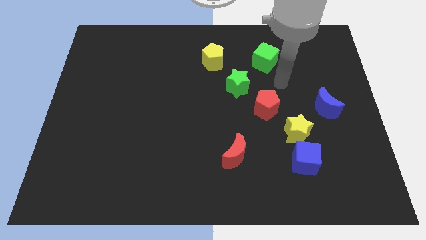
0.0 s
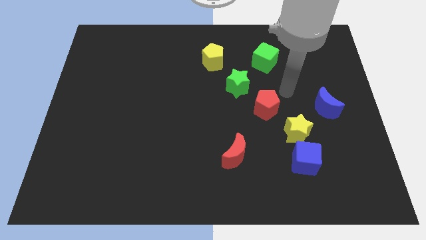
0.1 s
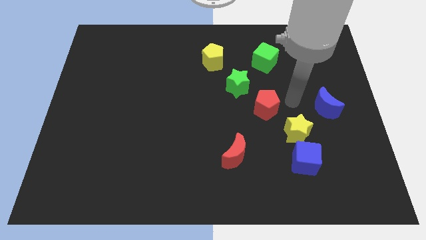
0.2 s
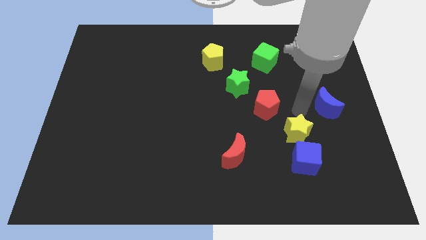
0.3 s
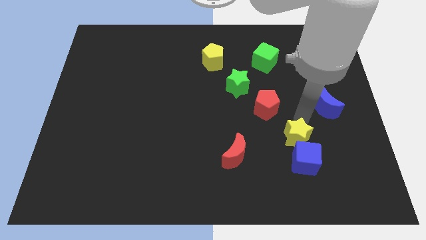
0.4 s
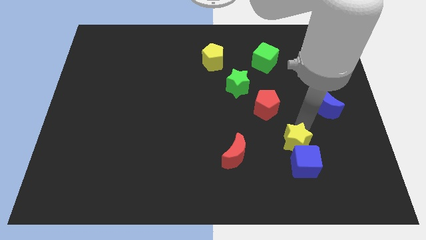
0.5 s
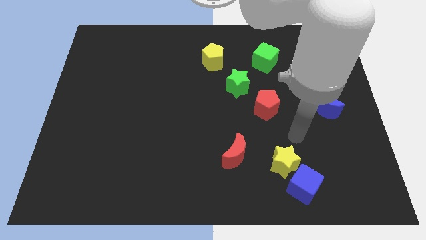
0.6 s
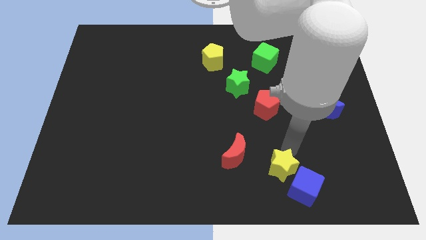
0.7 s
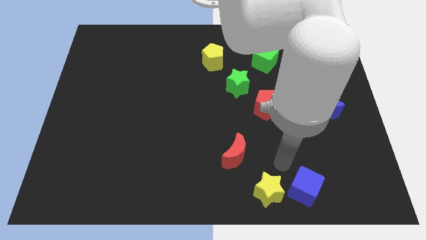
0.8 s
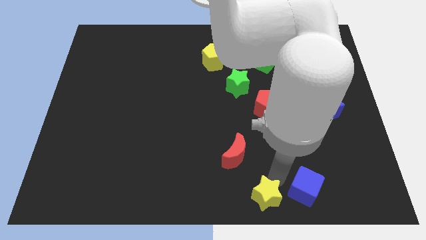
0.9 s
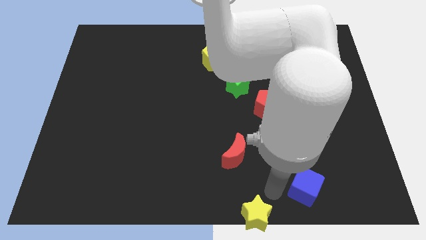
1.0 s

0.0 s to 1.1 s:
move the blue cube away from the yellow star

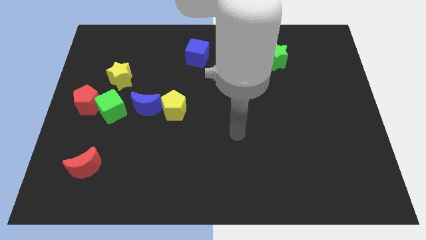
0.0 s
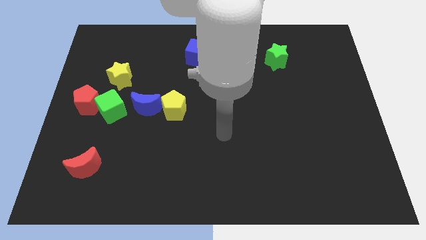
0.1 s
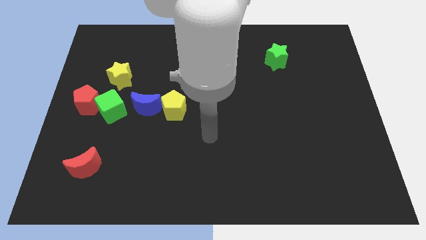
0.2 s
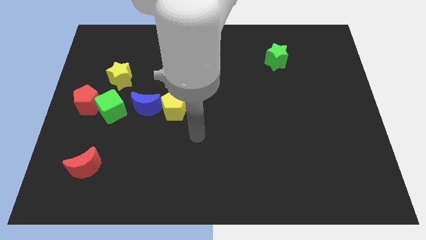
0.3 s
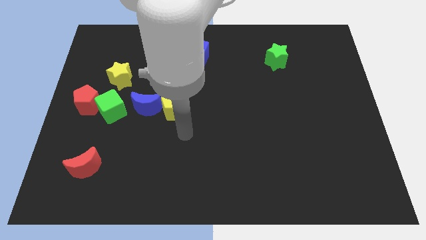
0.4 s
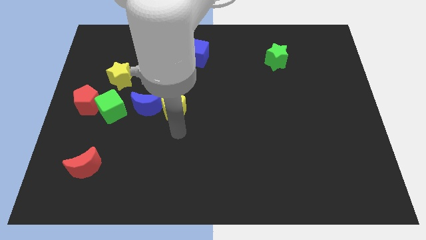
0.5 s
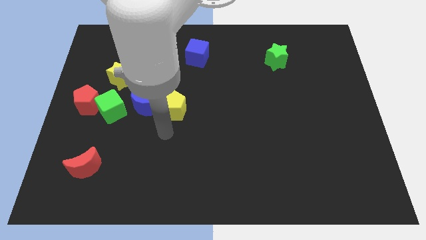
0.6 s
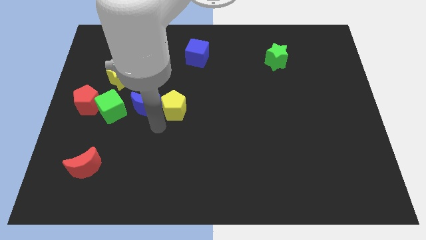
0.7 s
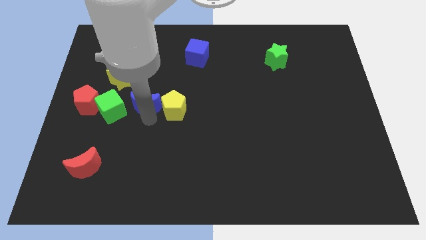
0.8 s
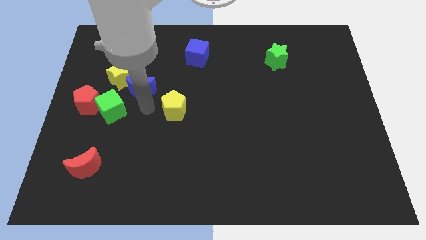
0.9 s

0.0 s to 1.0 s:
pull the yellow pentagon apart from the blue moon

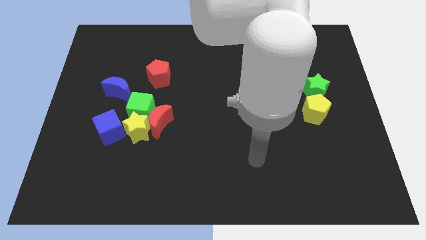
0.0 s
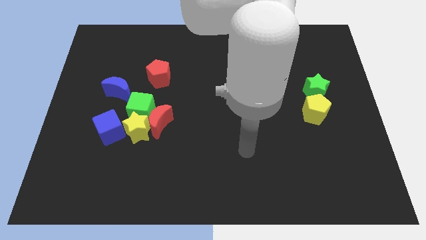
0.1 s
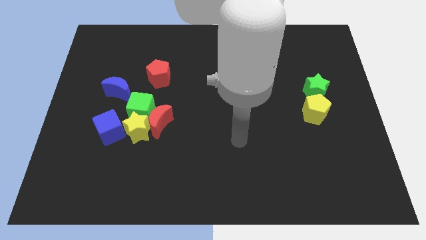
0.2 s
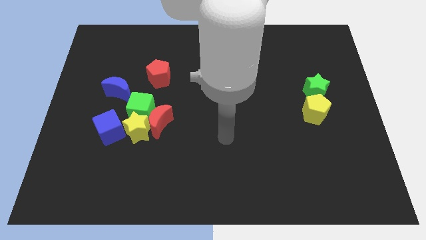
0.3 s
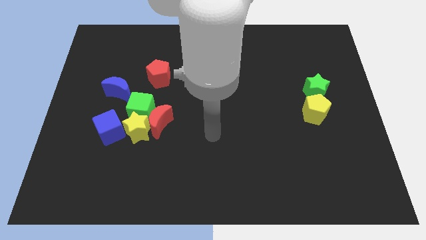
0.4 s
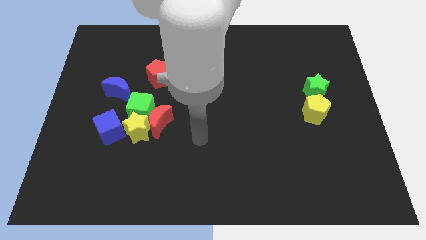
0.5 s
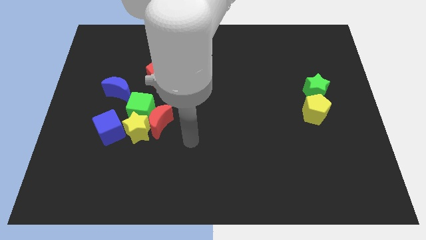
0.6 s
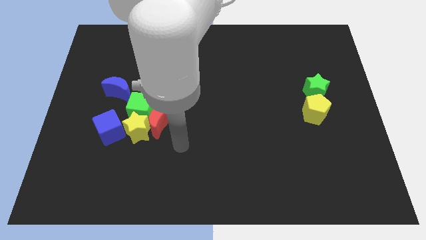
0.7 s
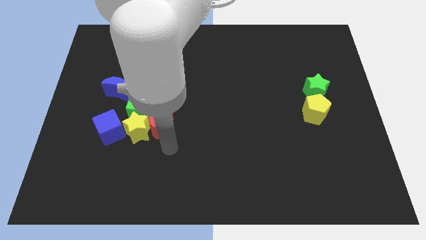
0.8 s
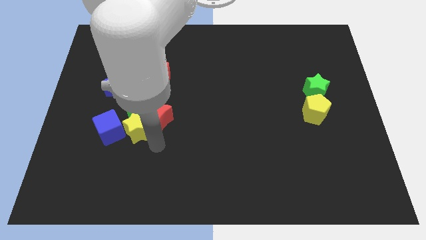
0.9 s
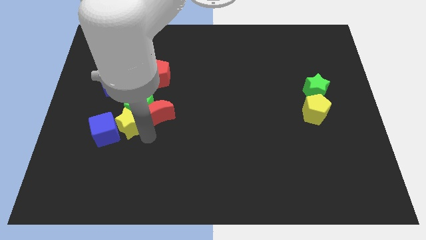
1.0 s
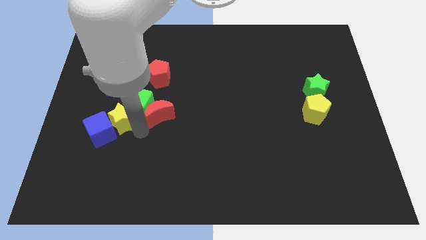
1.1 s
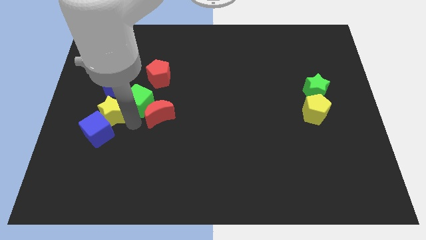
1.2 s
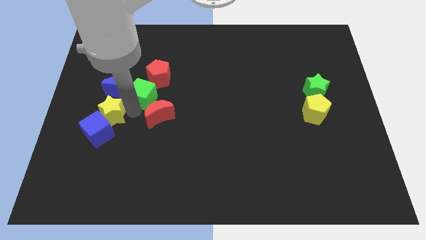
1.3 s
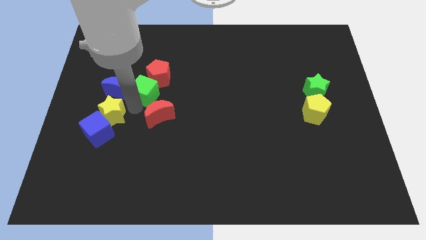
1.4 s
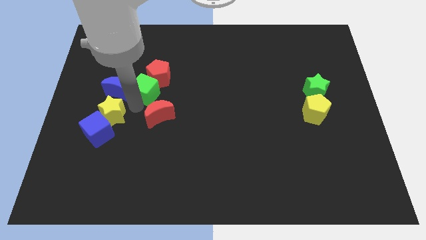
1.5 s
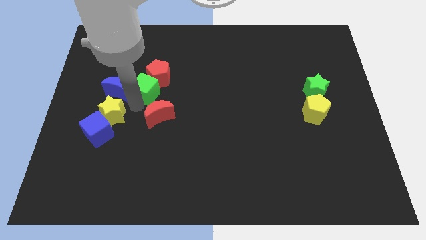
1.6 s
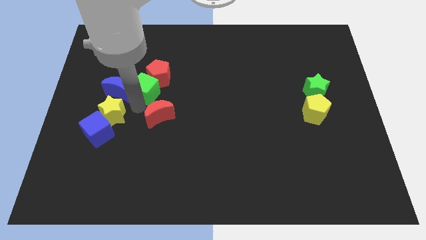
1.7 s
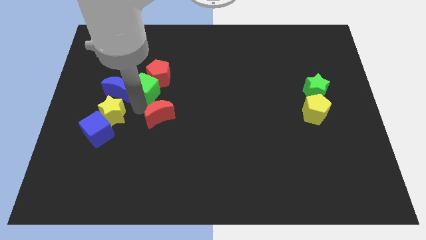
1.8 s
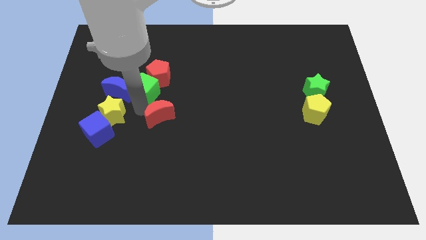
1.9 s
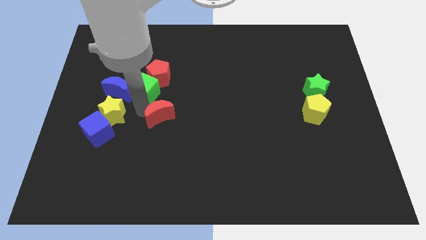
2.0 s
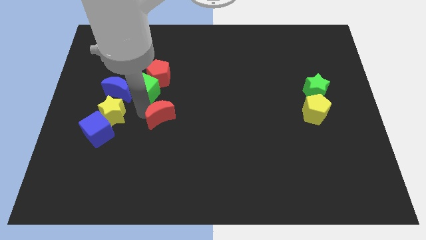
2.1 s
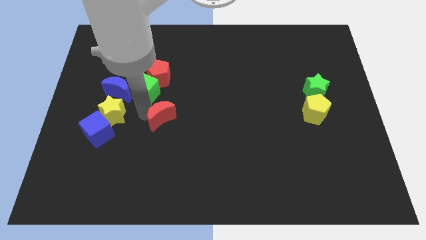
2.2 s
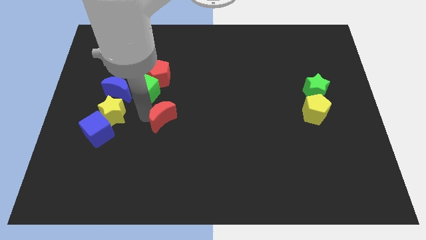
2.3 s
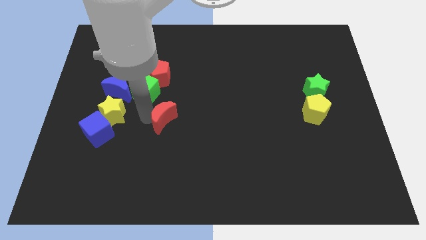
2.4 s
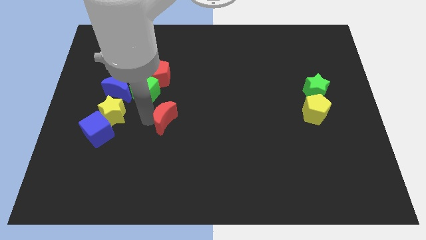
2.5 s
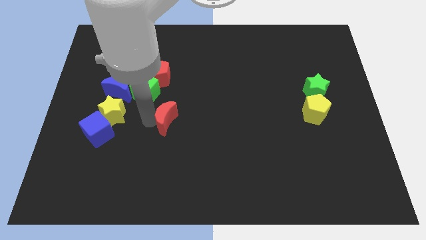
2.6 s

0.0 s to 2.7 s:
move the red moon away from the yellow star and green cube

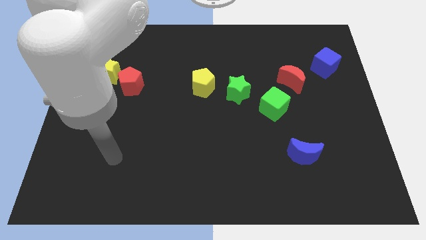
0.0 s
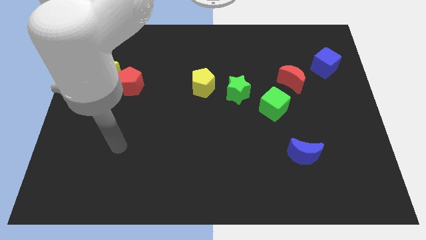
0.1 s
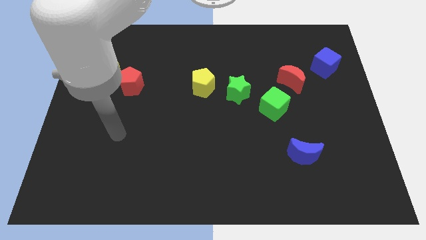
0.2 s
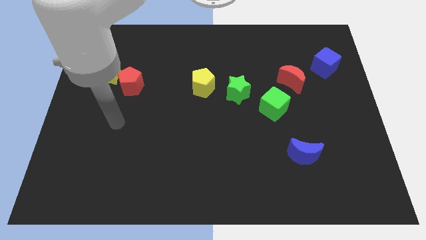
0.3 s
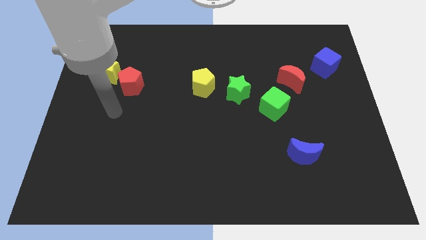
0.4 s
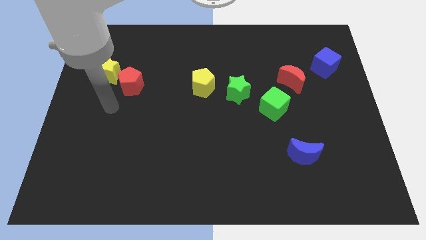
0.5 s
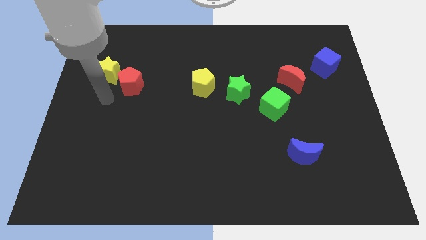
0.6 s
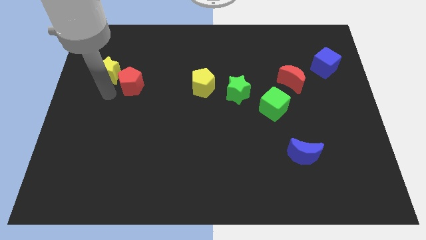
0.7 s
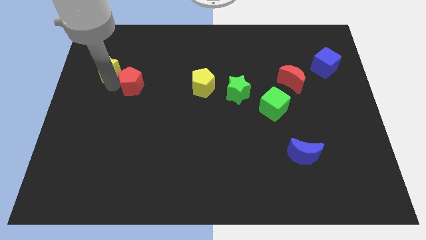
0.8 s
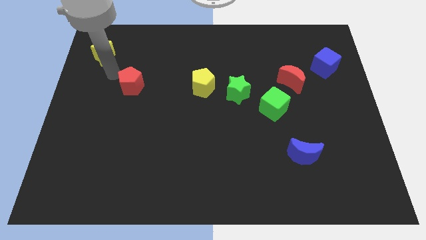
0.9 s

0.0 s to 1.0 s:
separate the red pentagon from the yellow star

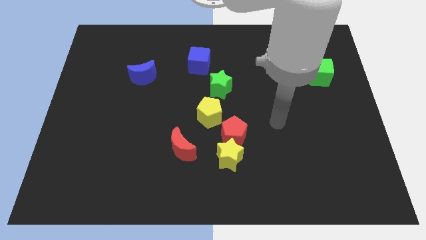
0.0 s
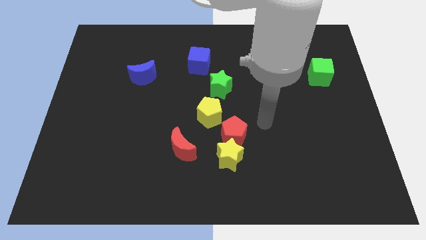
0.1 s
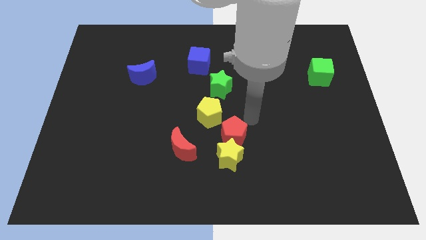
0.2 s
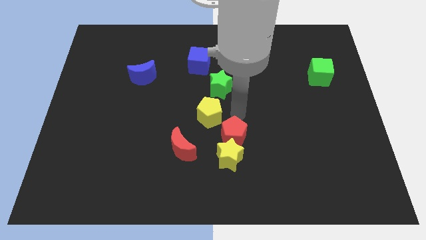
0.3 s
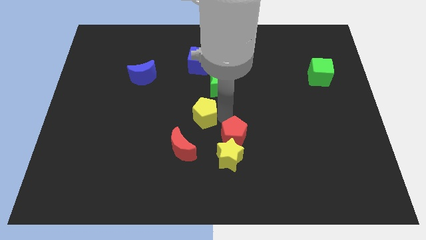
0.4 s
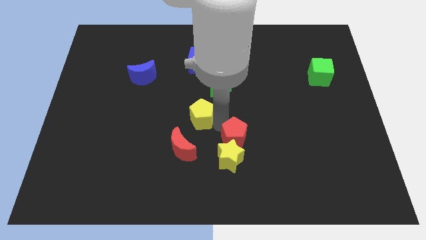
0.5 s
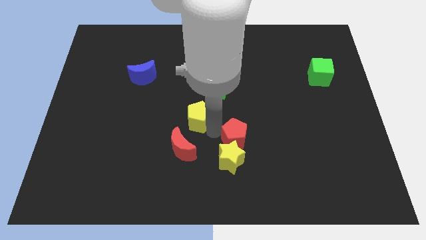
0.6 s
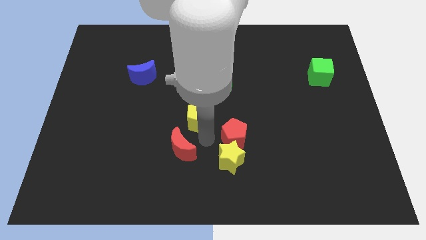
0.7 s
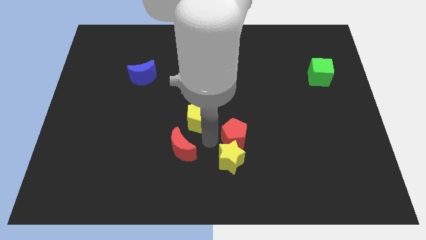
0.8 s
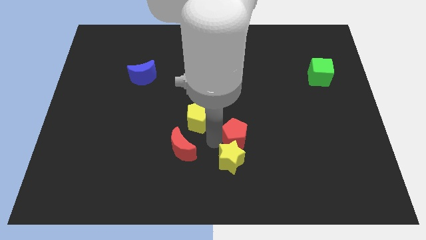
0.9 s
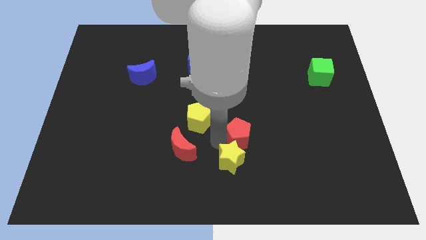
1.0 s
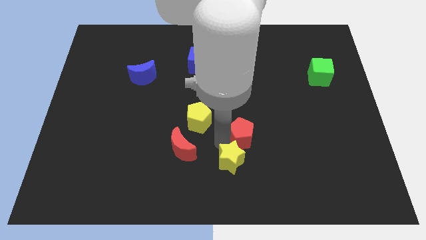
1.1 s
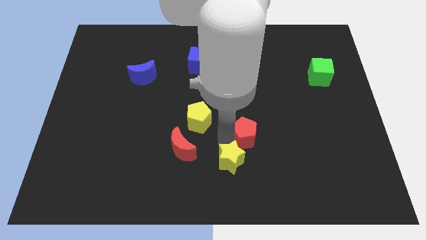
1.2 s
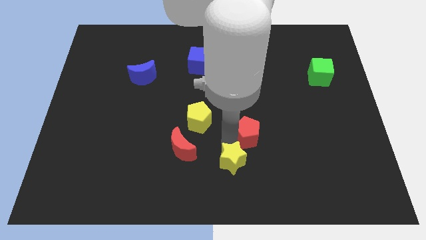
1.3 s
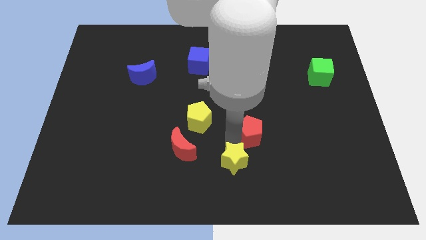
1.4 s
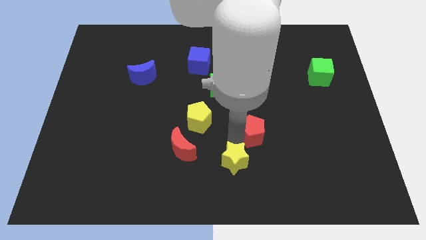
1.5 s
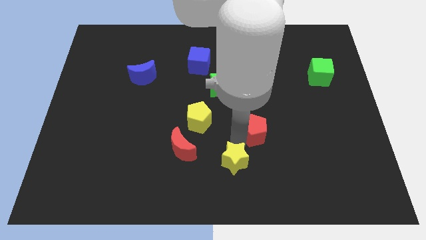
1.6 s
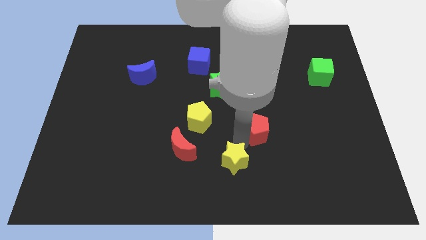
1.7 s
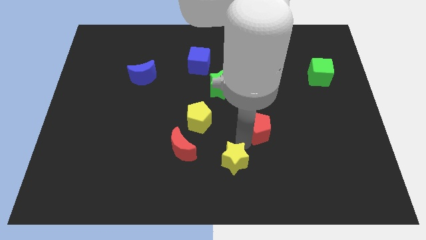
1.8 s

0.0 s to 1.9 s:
separate the red pentagon from the yellow star and yellow pentagon

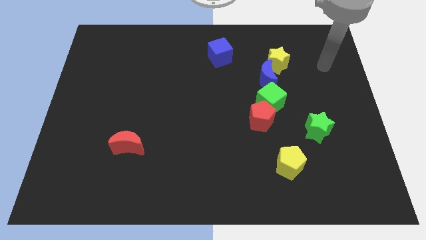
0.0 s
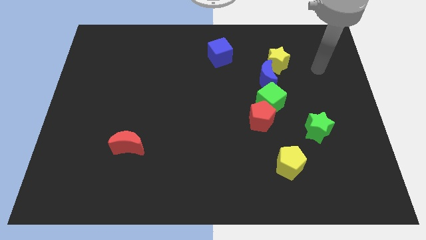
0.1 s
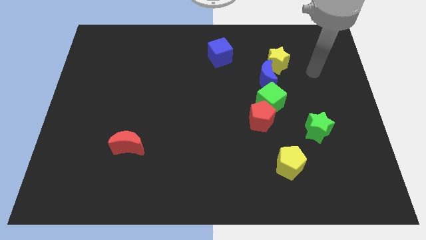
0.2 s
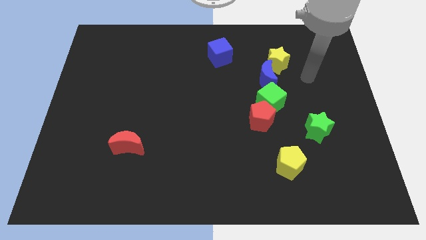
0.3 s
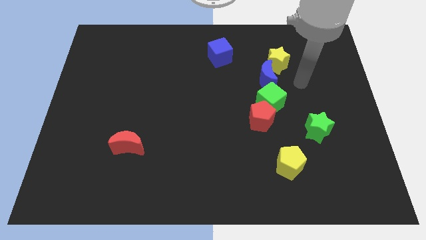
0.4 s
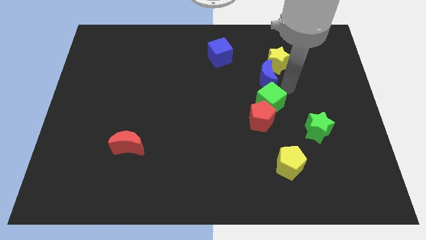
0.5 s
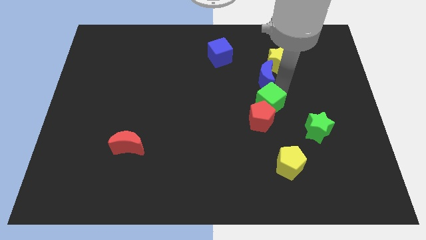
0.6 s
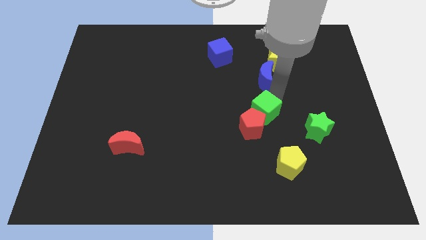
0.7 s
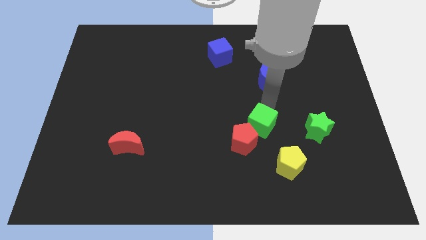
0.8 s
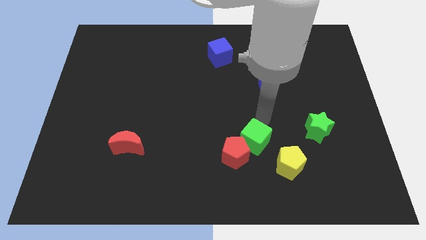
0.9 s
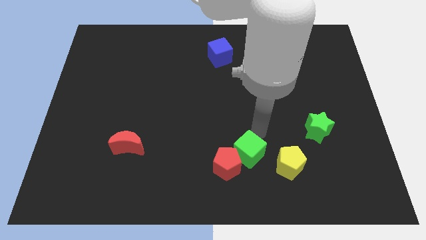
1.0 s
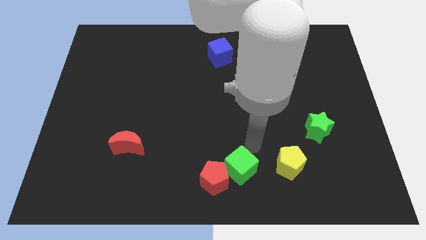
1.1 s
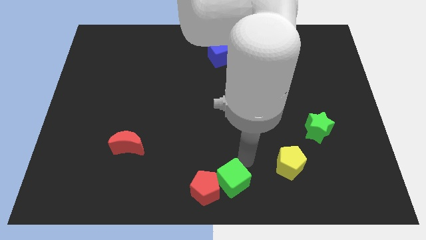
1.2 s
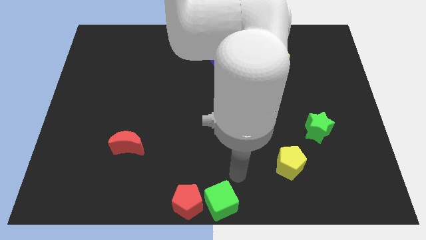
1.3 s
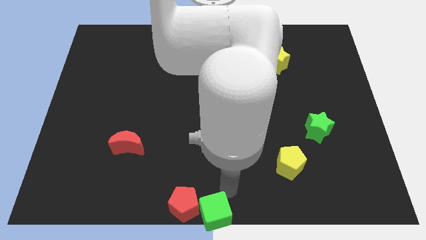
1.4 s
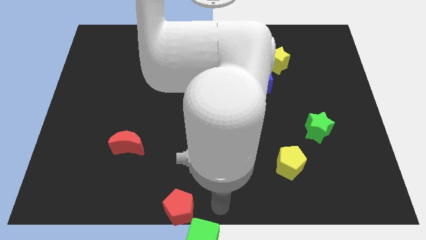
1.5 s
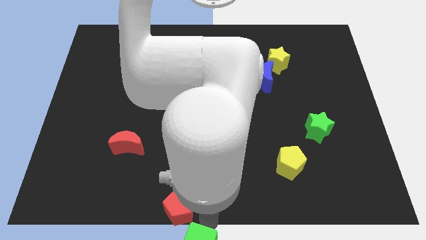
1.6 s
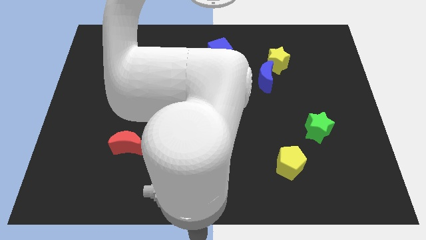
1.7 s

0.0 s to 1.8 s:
pull the red pentagon apart from the green cube
